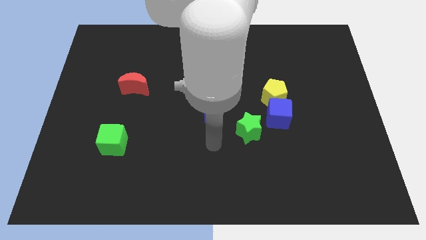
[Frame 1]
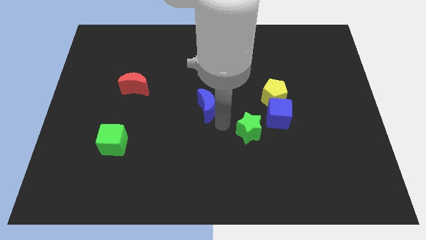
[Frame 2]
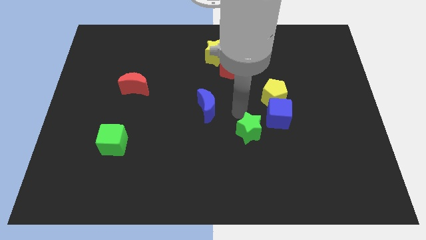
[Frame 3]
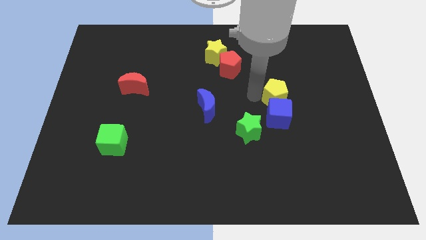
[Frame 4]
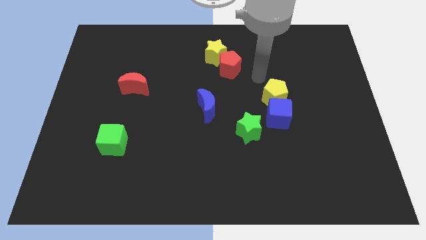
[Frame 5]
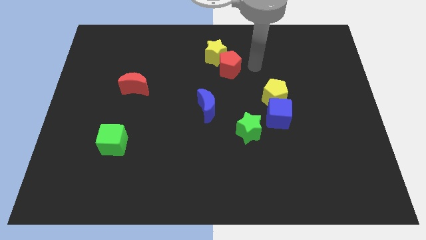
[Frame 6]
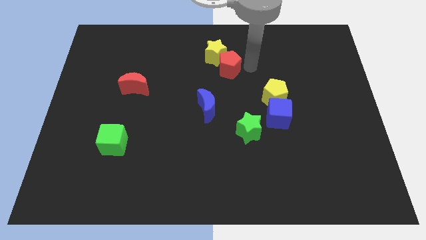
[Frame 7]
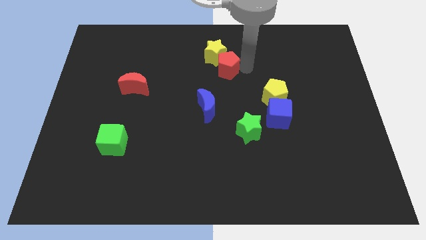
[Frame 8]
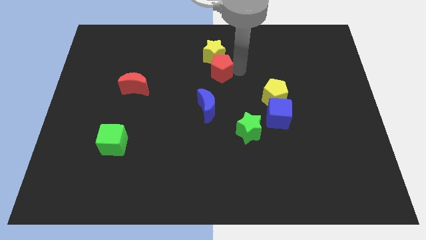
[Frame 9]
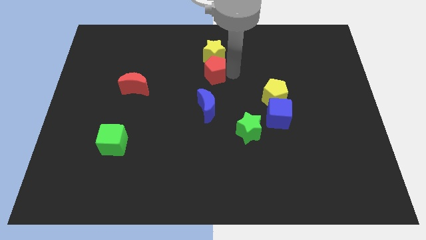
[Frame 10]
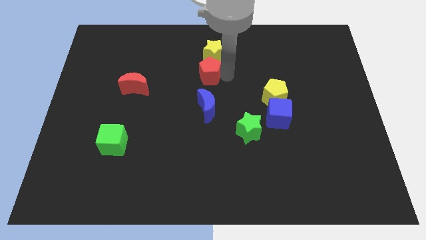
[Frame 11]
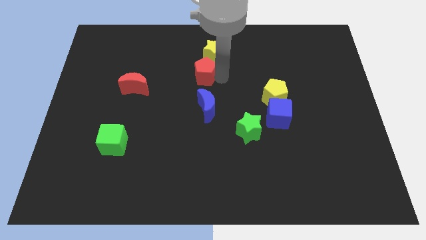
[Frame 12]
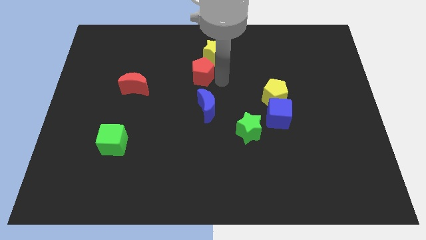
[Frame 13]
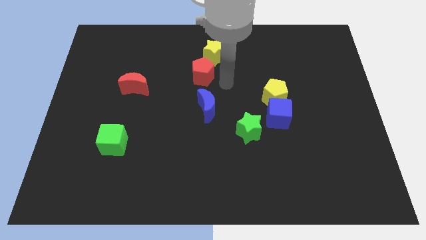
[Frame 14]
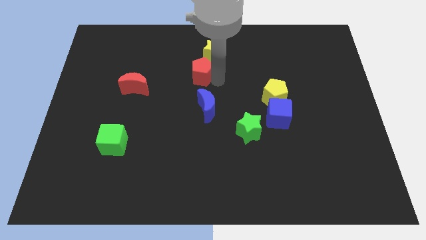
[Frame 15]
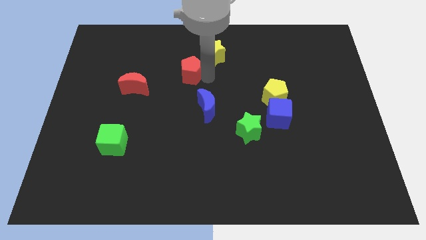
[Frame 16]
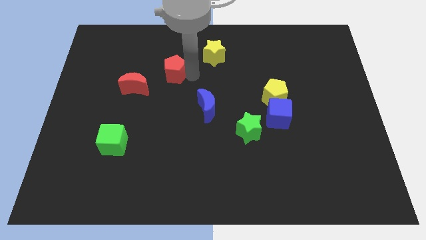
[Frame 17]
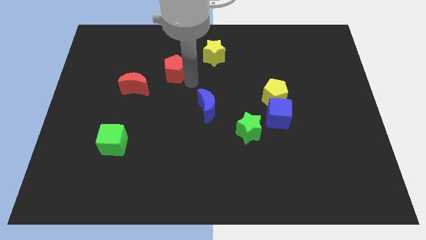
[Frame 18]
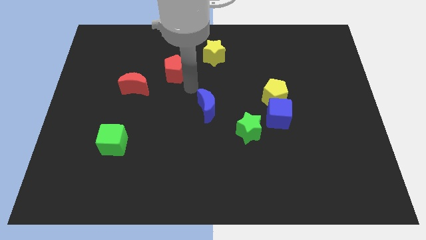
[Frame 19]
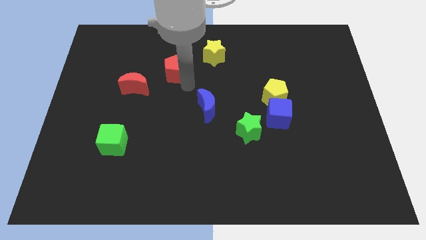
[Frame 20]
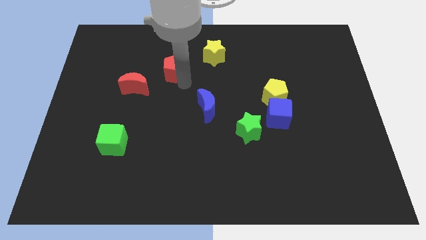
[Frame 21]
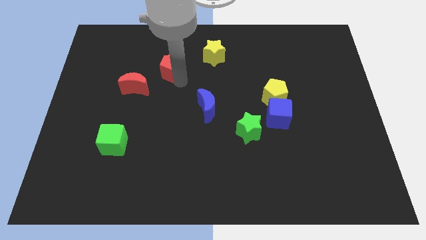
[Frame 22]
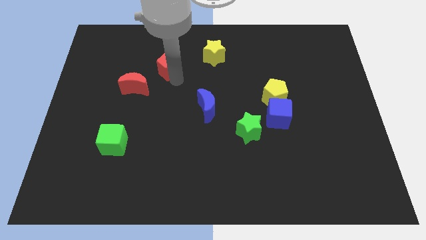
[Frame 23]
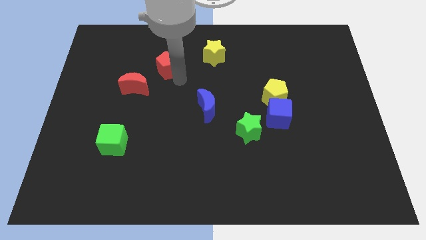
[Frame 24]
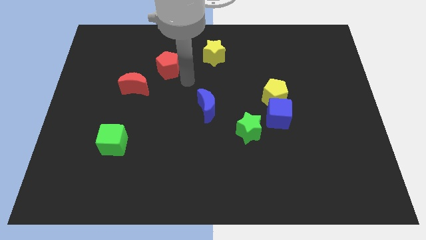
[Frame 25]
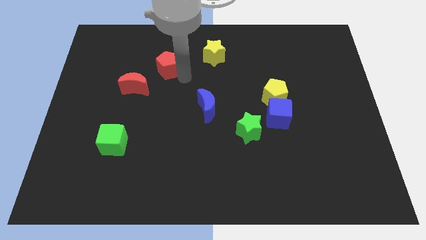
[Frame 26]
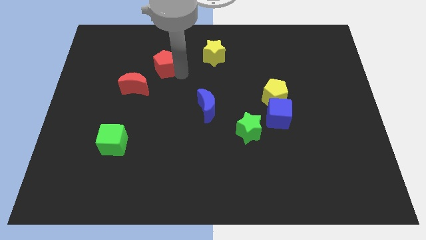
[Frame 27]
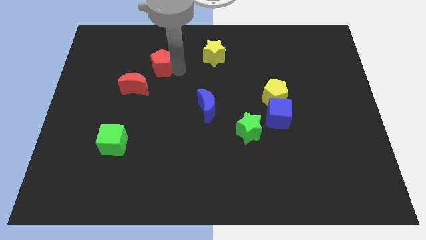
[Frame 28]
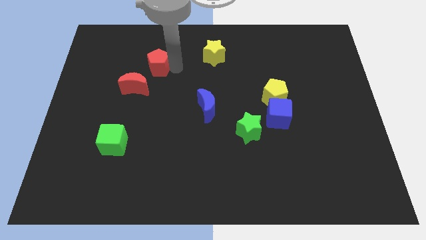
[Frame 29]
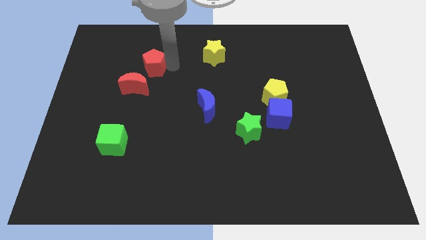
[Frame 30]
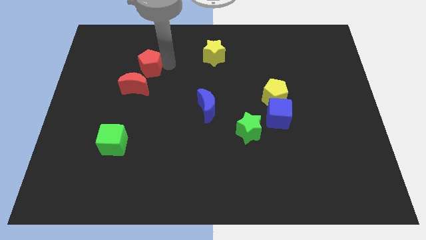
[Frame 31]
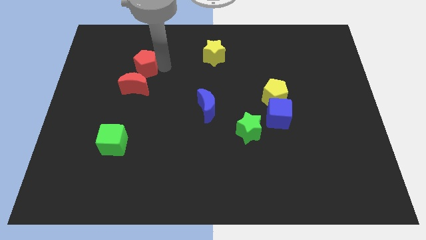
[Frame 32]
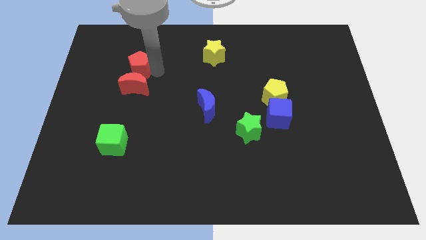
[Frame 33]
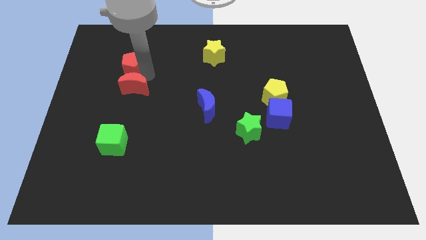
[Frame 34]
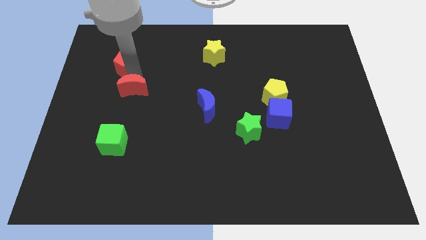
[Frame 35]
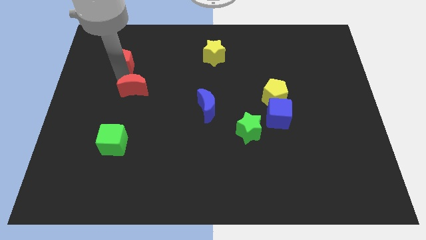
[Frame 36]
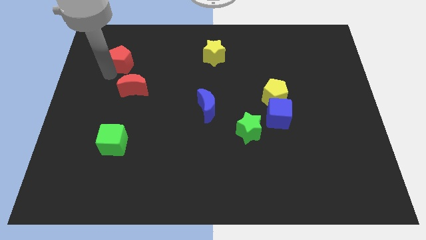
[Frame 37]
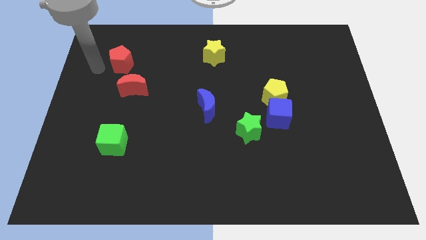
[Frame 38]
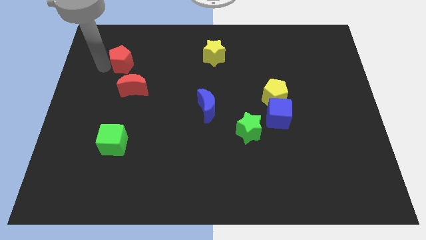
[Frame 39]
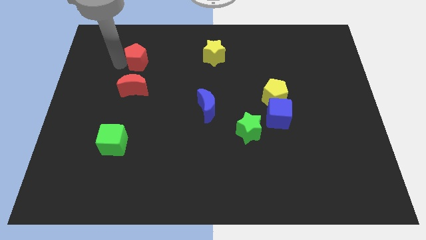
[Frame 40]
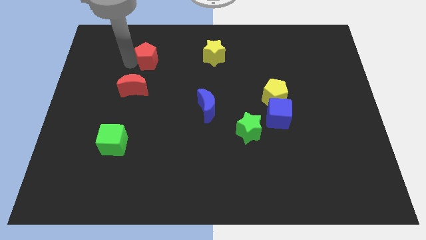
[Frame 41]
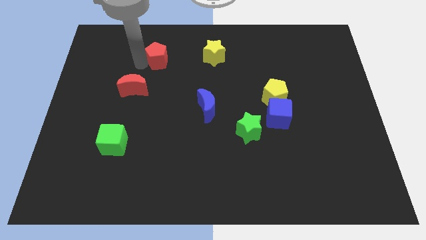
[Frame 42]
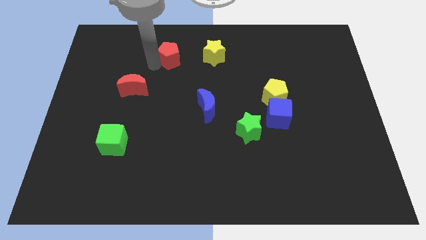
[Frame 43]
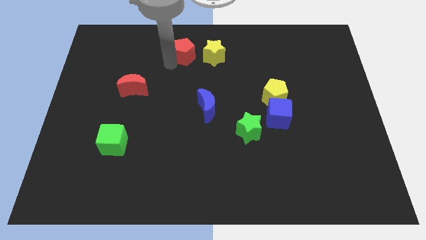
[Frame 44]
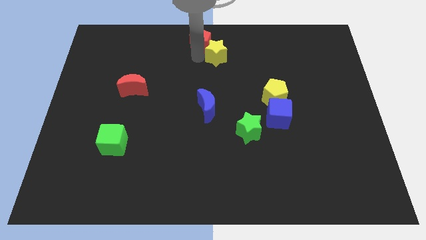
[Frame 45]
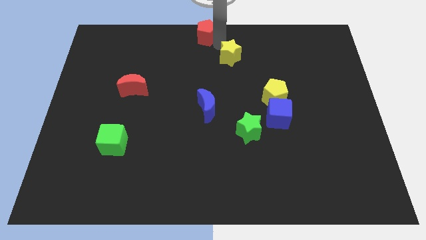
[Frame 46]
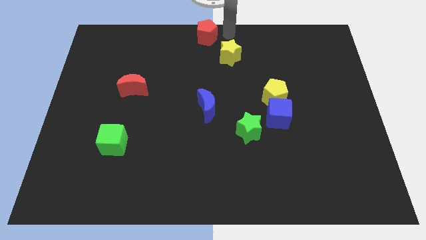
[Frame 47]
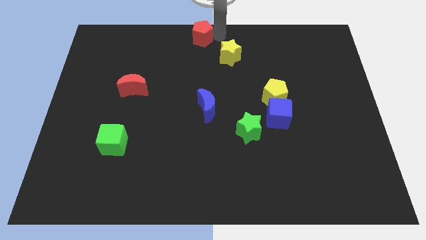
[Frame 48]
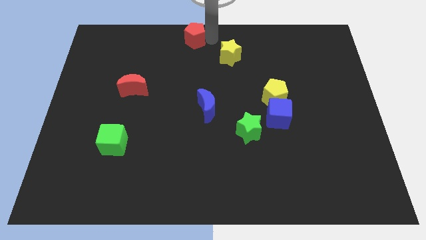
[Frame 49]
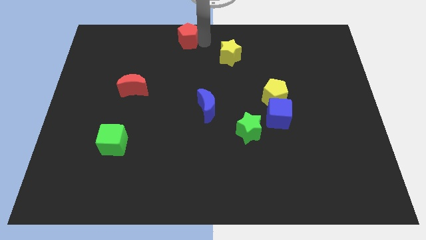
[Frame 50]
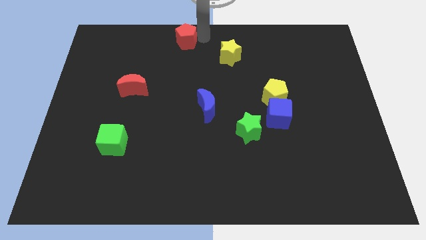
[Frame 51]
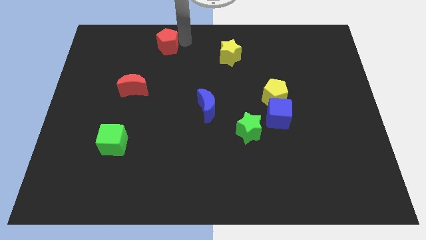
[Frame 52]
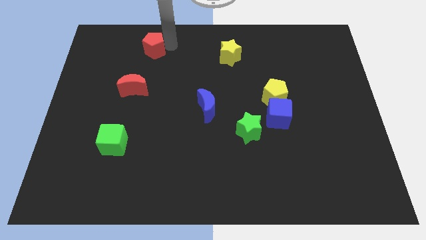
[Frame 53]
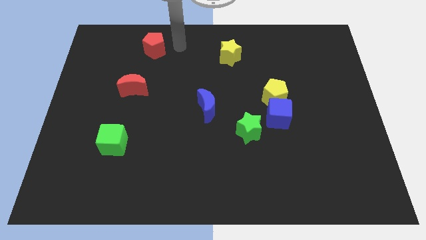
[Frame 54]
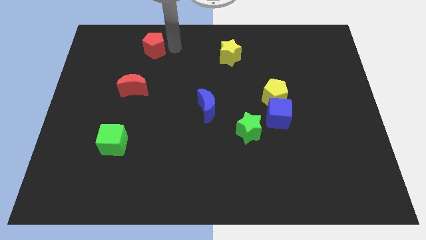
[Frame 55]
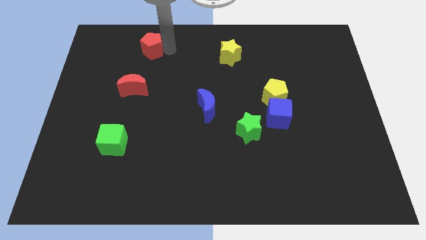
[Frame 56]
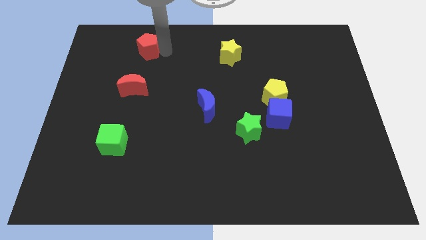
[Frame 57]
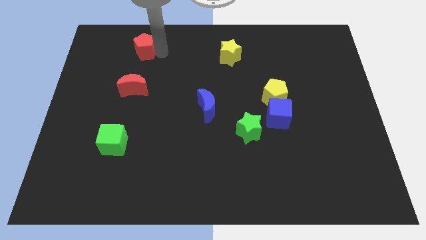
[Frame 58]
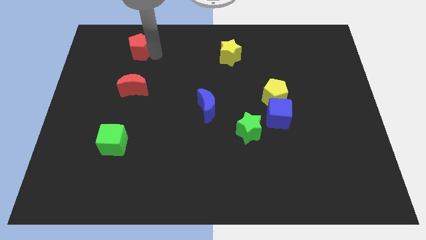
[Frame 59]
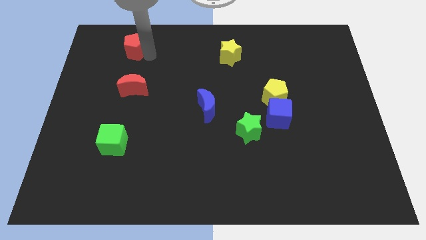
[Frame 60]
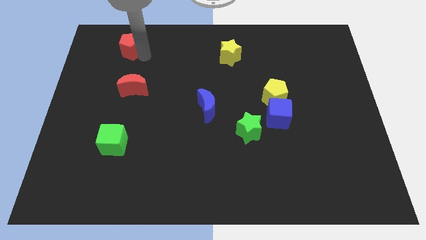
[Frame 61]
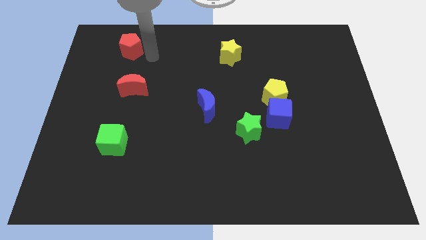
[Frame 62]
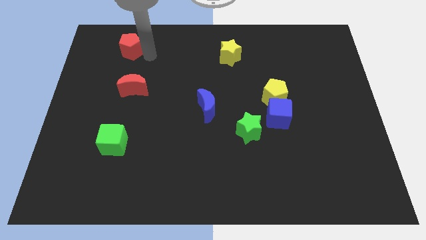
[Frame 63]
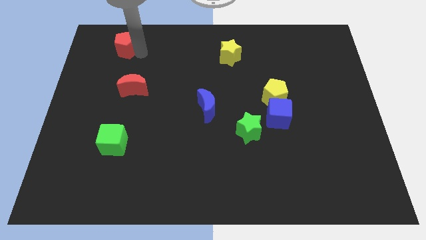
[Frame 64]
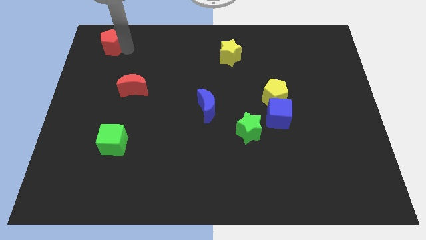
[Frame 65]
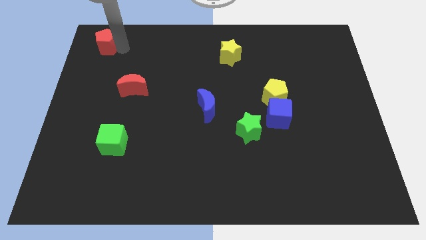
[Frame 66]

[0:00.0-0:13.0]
put the red pentagon to the top left of the board

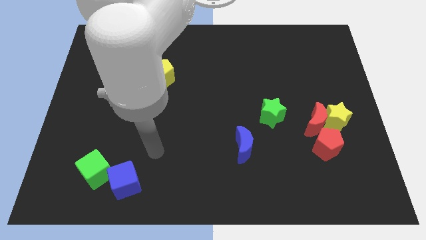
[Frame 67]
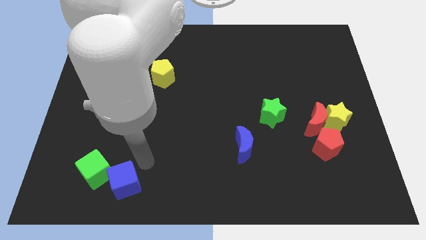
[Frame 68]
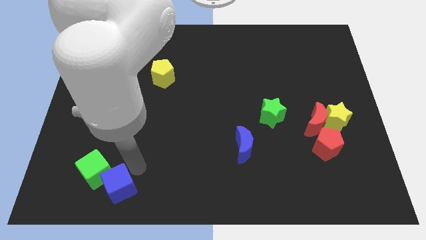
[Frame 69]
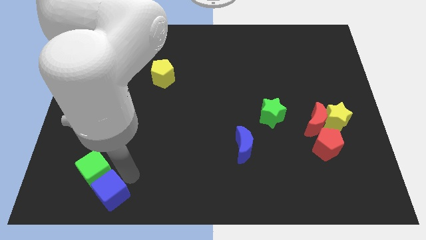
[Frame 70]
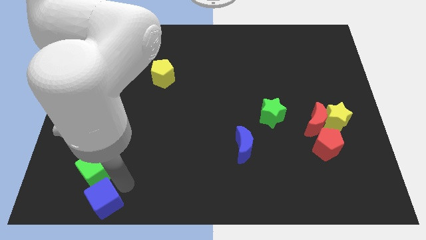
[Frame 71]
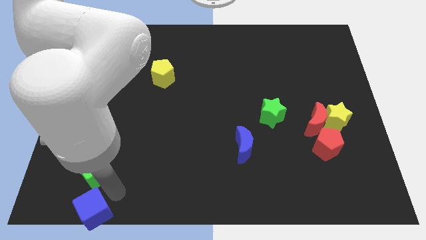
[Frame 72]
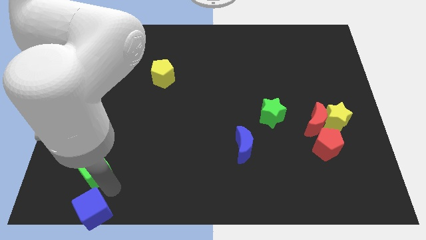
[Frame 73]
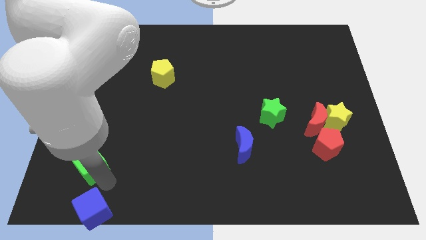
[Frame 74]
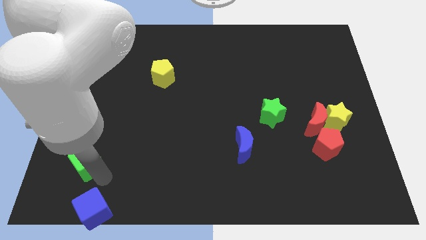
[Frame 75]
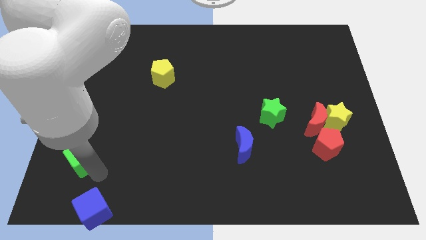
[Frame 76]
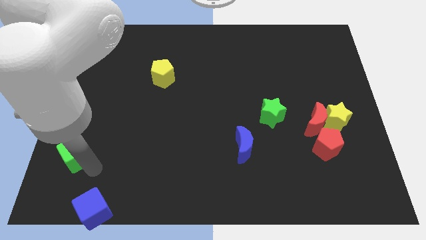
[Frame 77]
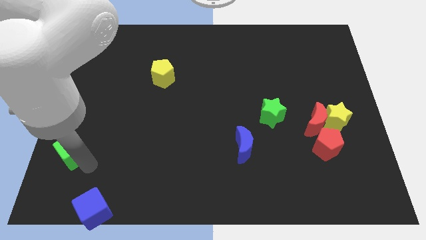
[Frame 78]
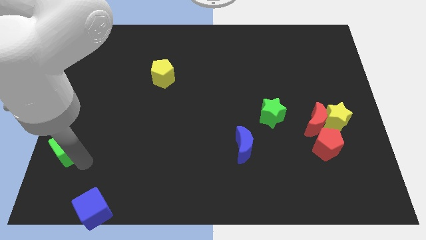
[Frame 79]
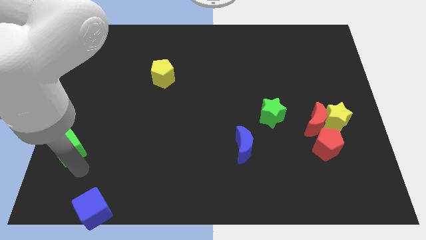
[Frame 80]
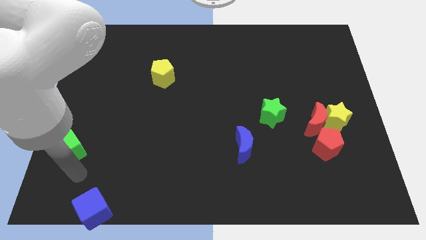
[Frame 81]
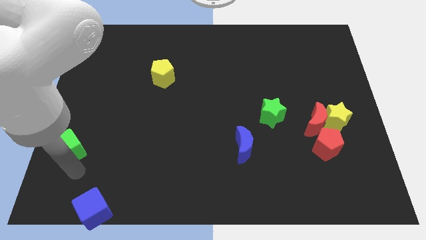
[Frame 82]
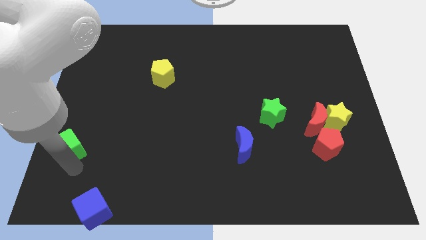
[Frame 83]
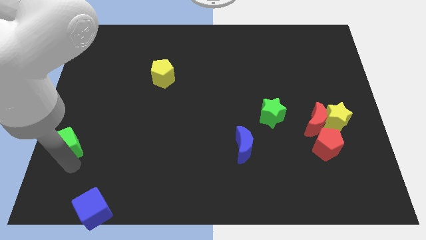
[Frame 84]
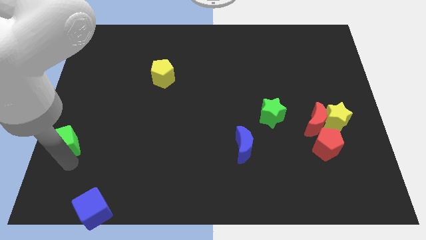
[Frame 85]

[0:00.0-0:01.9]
put the green cube to the left side
